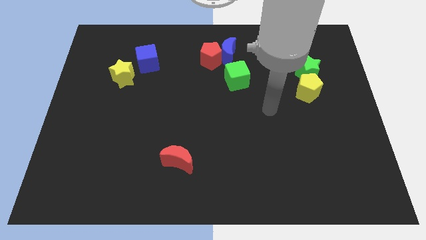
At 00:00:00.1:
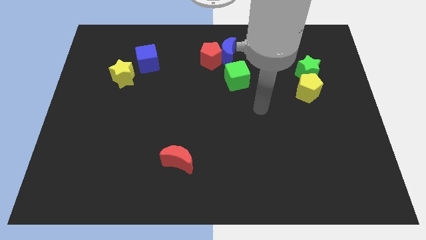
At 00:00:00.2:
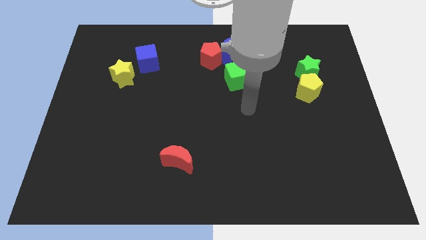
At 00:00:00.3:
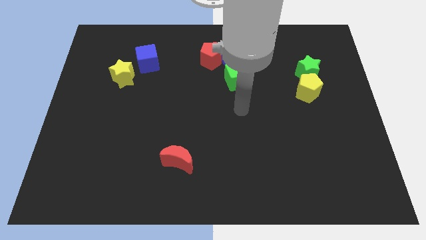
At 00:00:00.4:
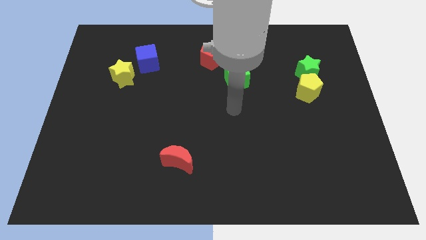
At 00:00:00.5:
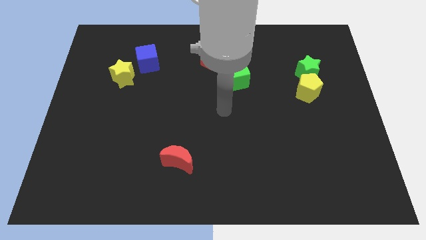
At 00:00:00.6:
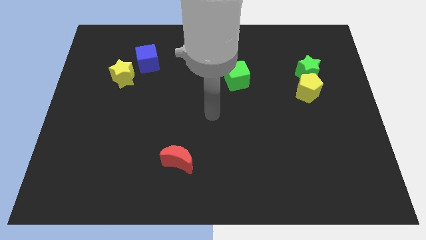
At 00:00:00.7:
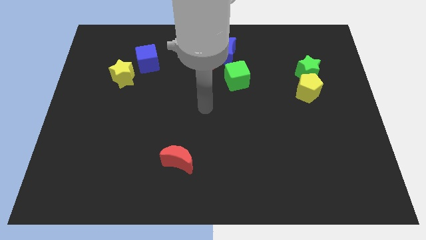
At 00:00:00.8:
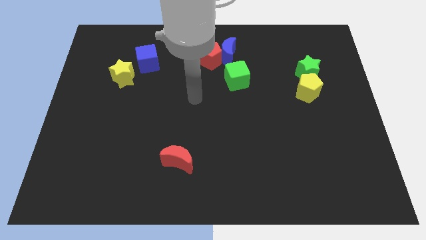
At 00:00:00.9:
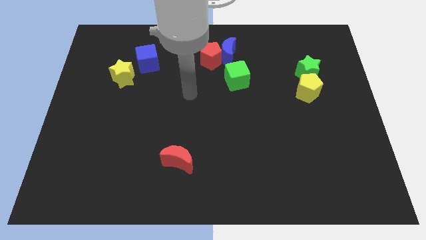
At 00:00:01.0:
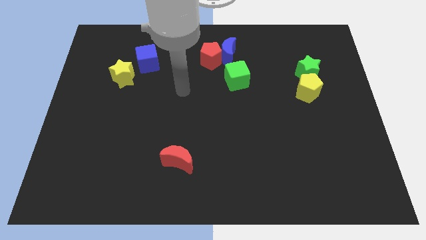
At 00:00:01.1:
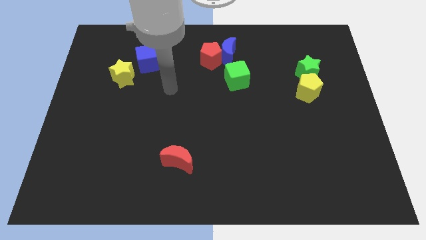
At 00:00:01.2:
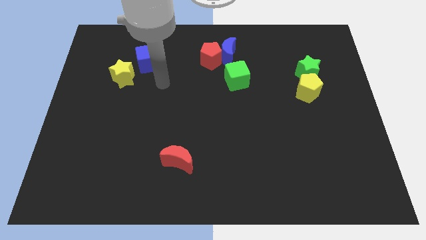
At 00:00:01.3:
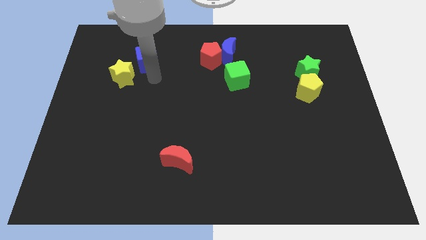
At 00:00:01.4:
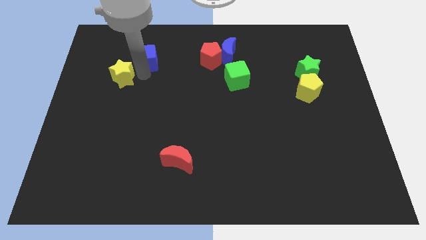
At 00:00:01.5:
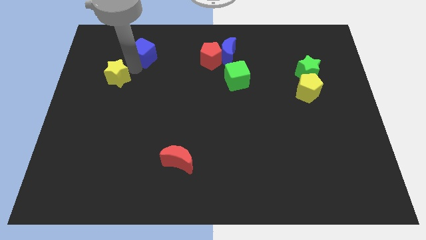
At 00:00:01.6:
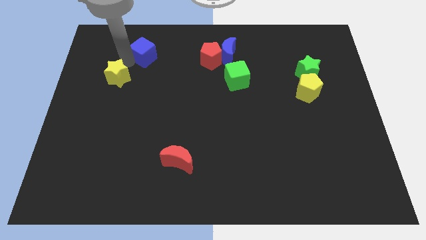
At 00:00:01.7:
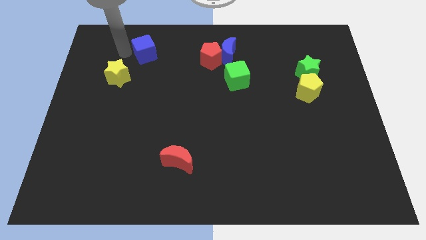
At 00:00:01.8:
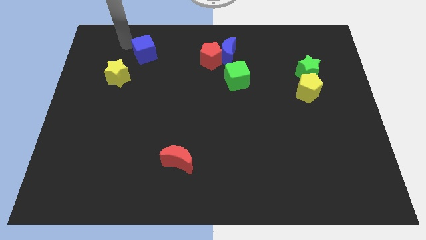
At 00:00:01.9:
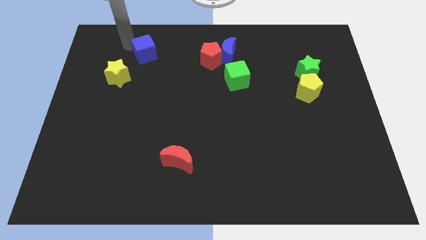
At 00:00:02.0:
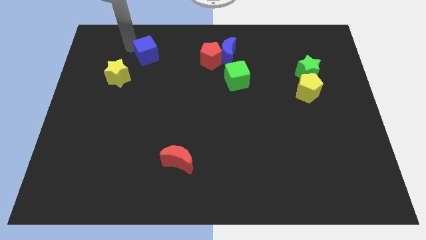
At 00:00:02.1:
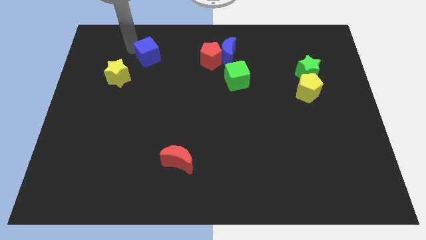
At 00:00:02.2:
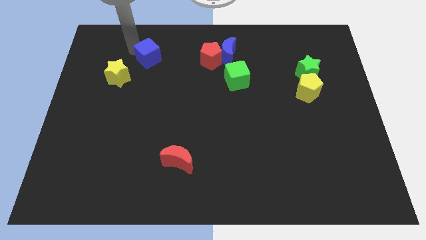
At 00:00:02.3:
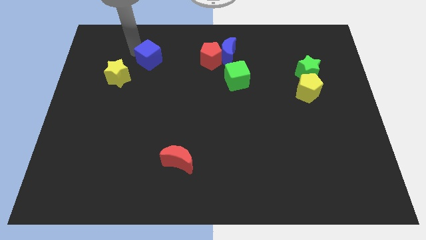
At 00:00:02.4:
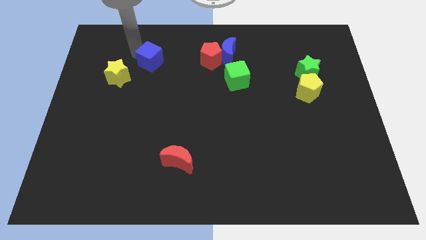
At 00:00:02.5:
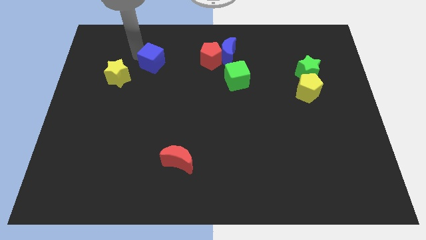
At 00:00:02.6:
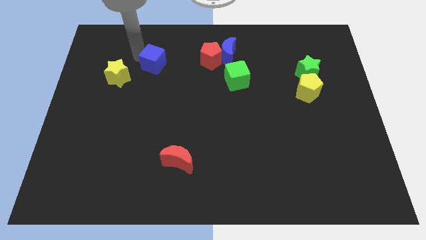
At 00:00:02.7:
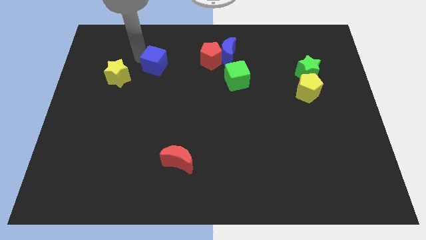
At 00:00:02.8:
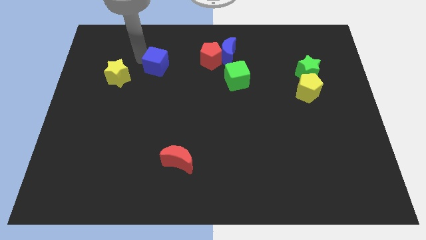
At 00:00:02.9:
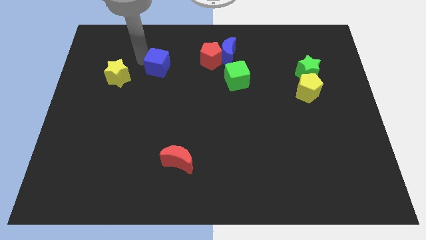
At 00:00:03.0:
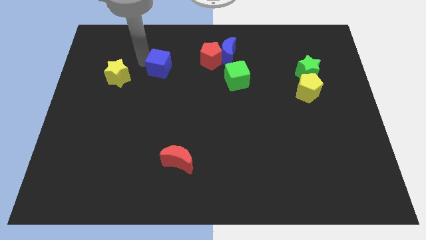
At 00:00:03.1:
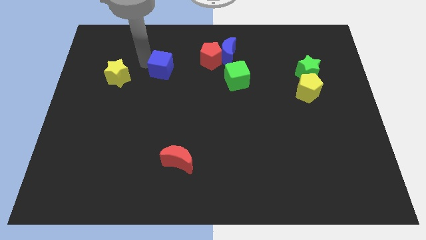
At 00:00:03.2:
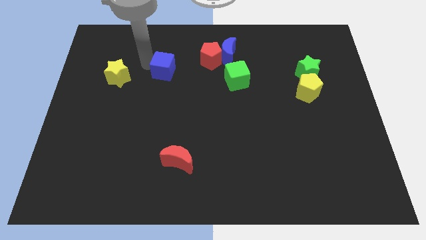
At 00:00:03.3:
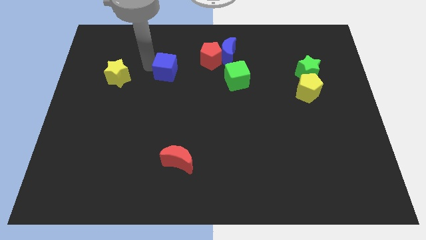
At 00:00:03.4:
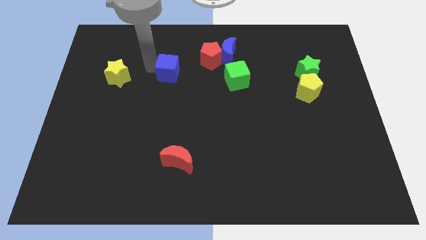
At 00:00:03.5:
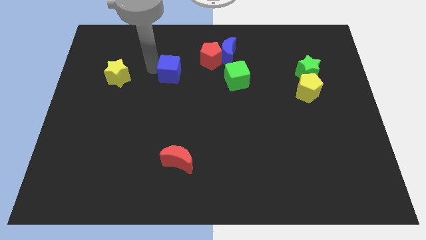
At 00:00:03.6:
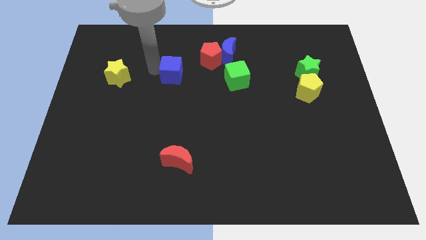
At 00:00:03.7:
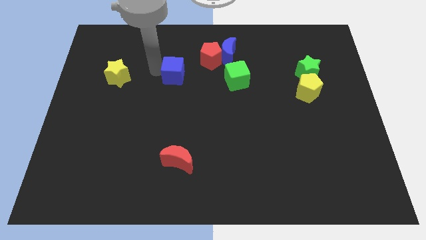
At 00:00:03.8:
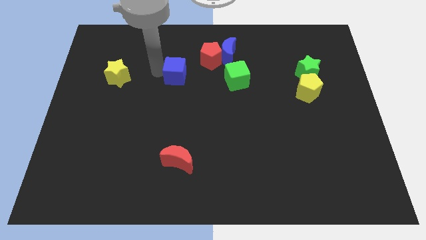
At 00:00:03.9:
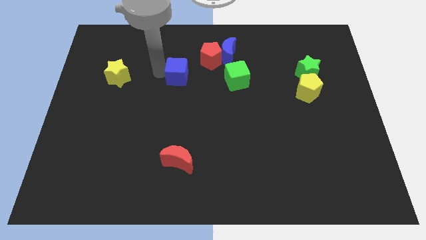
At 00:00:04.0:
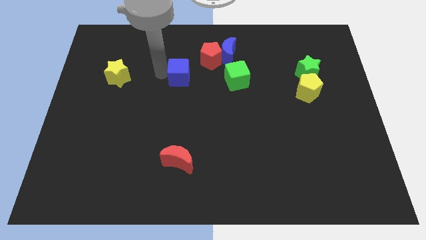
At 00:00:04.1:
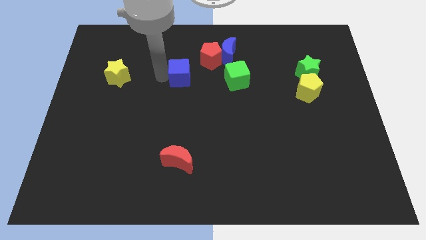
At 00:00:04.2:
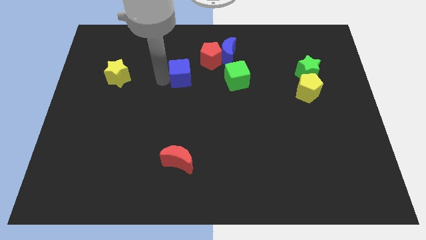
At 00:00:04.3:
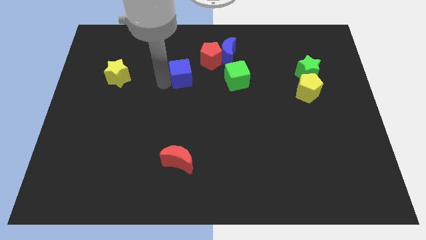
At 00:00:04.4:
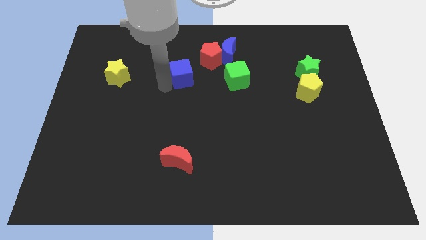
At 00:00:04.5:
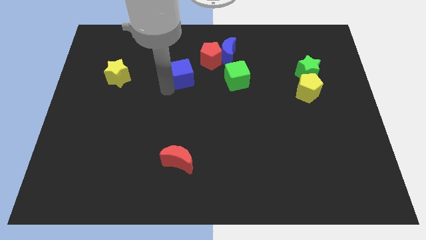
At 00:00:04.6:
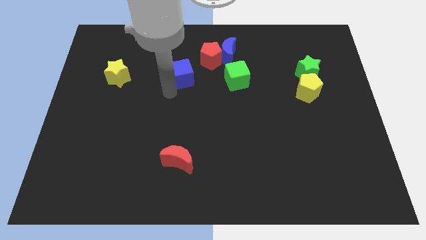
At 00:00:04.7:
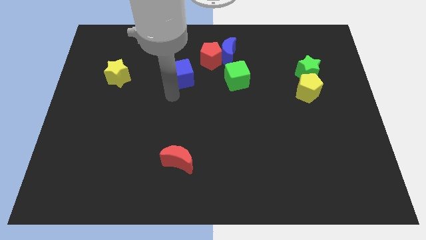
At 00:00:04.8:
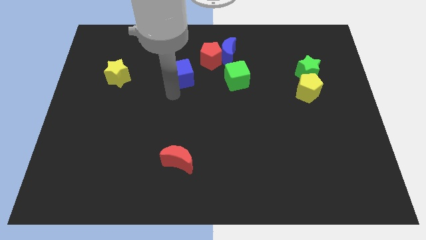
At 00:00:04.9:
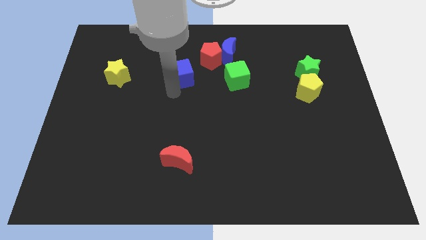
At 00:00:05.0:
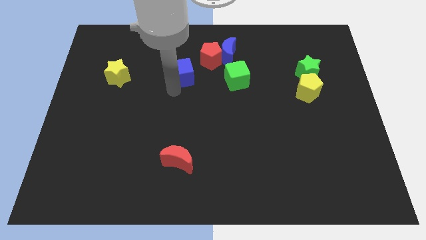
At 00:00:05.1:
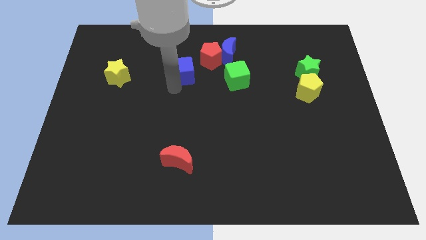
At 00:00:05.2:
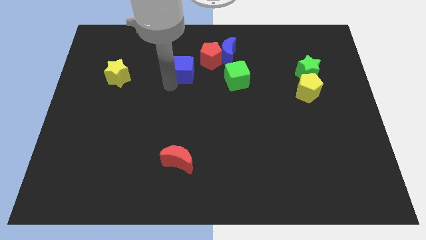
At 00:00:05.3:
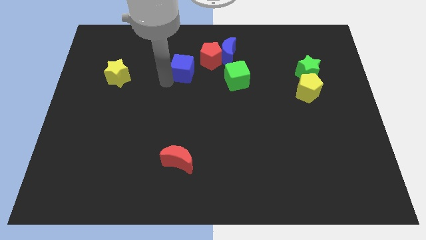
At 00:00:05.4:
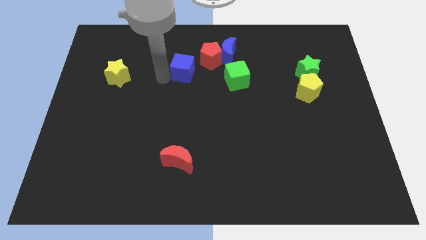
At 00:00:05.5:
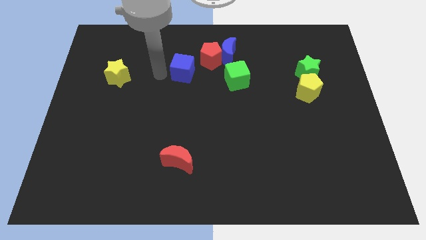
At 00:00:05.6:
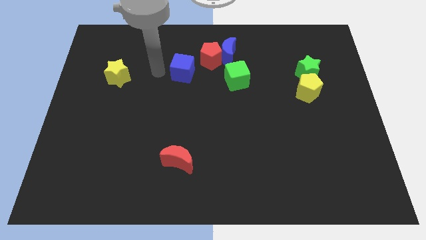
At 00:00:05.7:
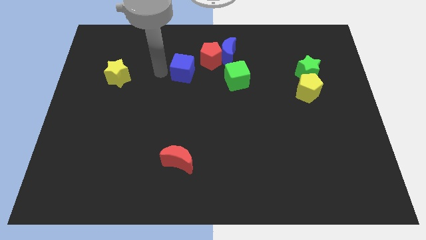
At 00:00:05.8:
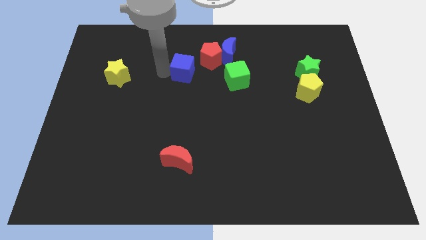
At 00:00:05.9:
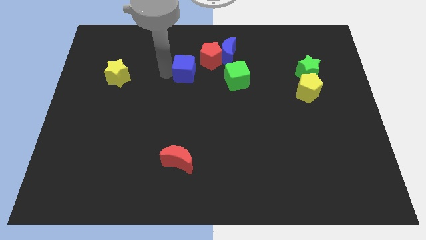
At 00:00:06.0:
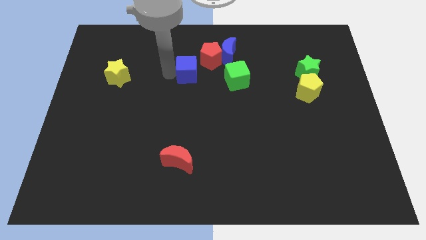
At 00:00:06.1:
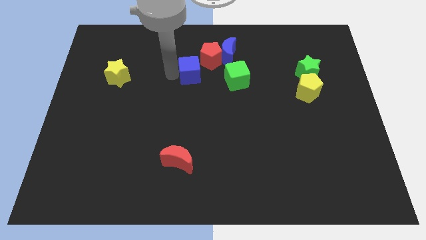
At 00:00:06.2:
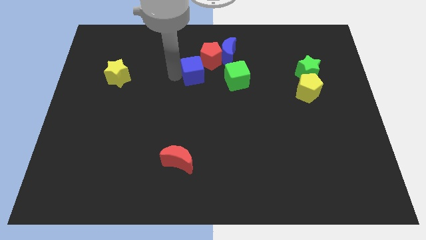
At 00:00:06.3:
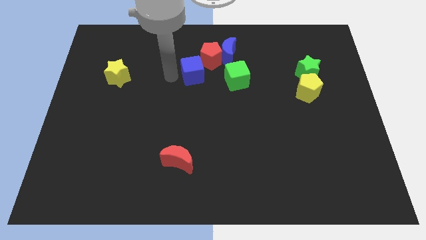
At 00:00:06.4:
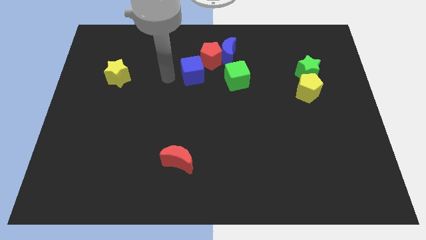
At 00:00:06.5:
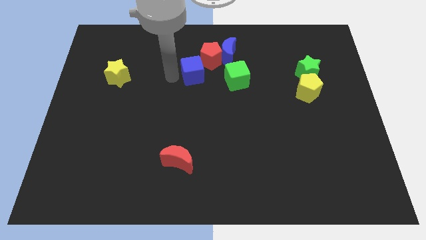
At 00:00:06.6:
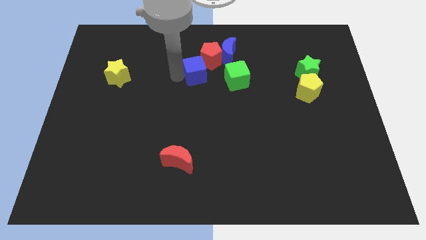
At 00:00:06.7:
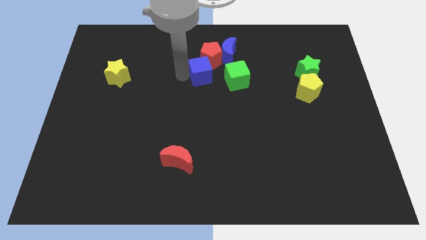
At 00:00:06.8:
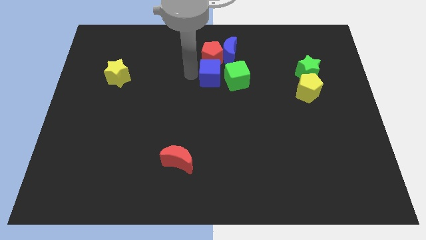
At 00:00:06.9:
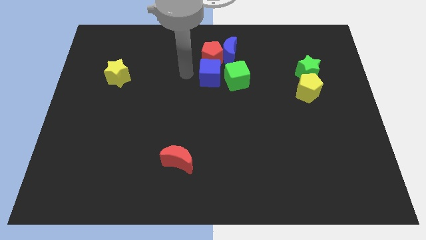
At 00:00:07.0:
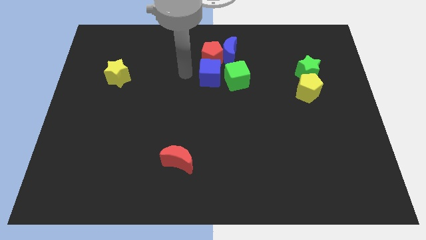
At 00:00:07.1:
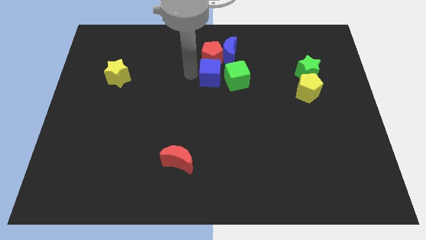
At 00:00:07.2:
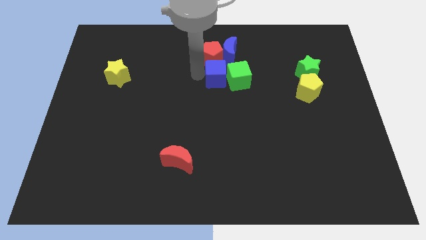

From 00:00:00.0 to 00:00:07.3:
put the blue cube next to the green cube
